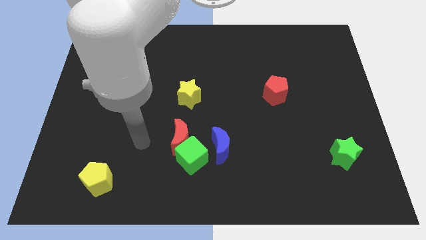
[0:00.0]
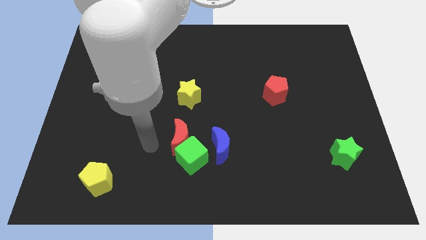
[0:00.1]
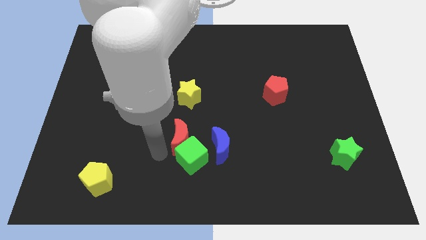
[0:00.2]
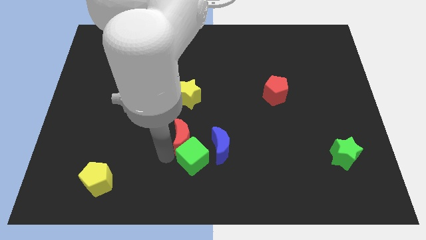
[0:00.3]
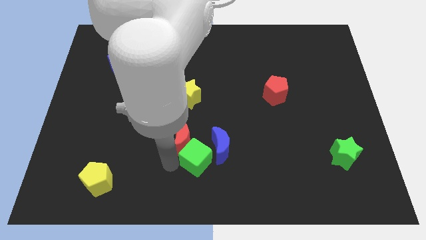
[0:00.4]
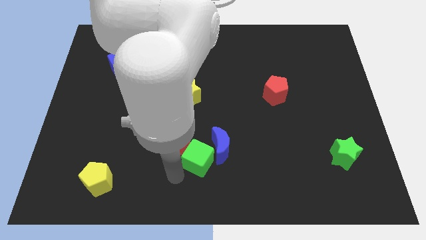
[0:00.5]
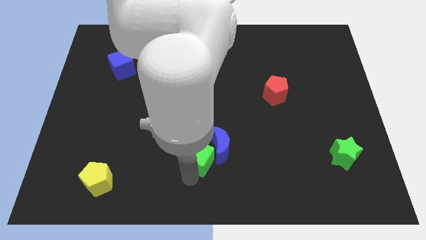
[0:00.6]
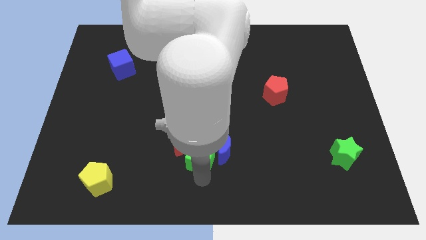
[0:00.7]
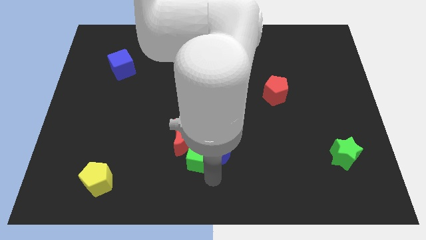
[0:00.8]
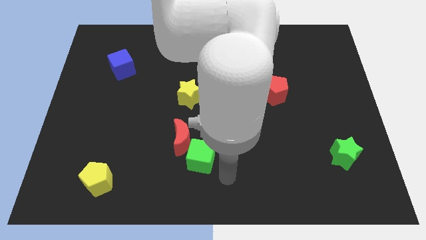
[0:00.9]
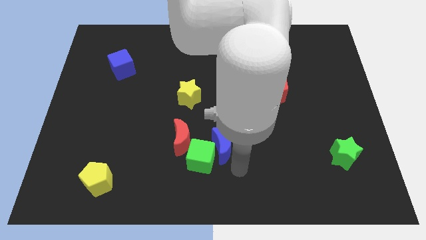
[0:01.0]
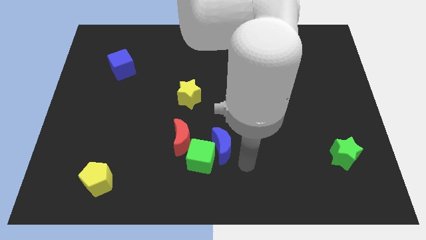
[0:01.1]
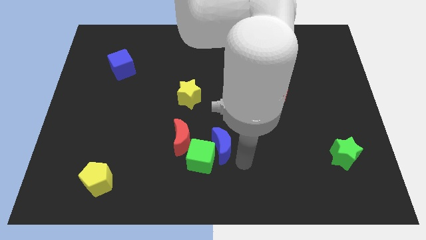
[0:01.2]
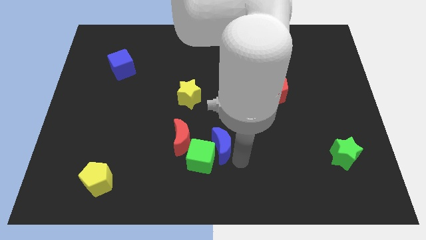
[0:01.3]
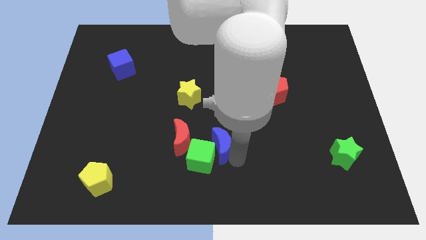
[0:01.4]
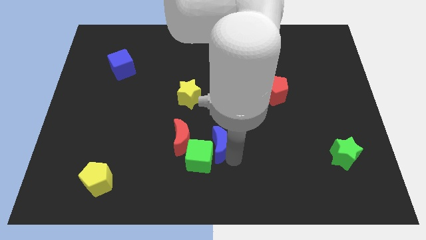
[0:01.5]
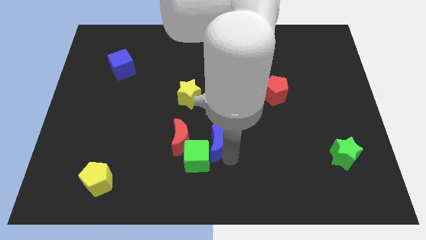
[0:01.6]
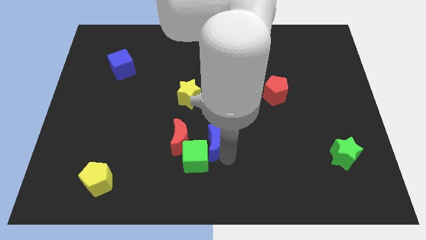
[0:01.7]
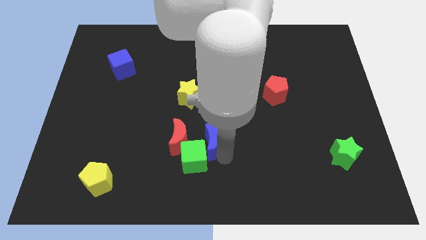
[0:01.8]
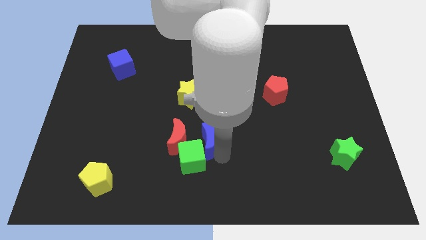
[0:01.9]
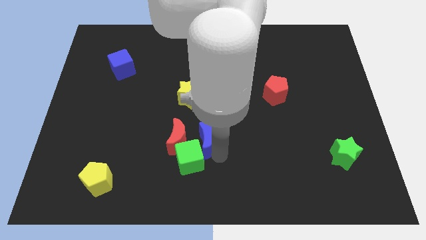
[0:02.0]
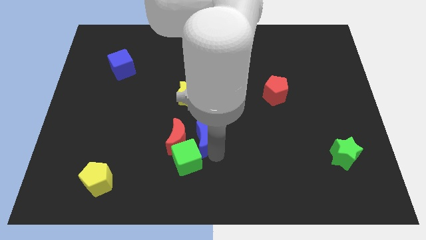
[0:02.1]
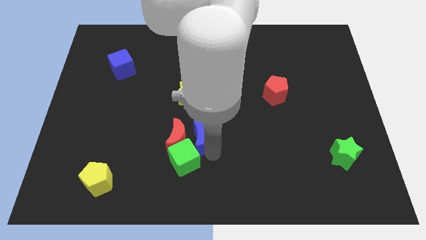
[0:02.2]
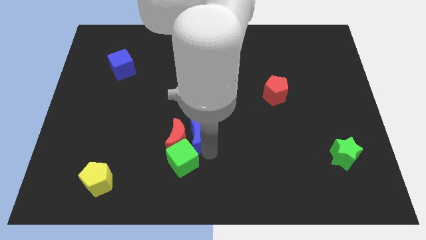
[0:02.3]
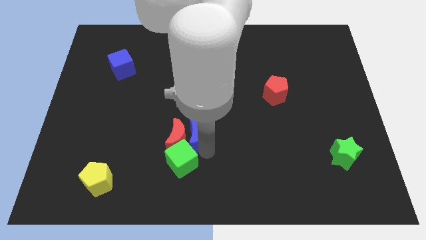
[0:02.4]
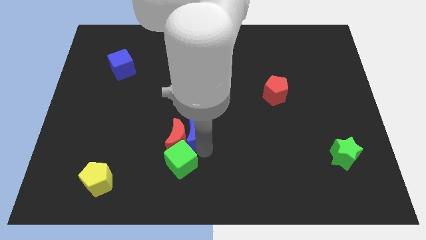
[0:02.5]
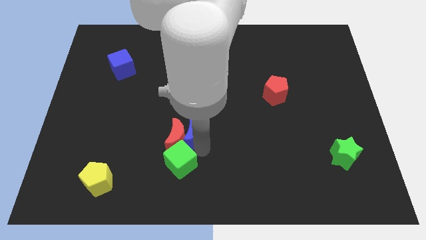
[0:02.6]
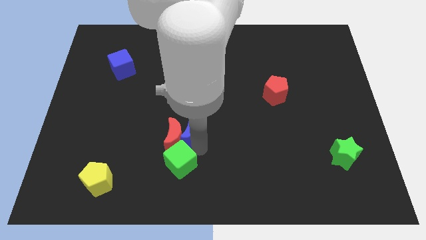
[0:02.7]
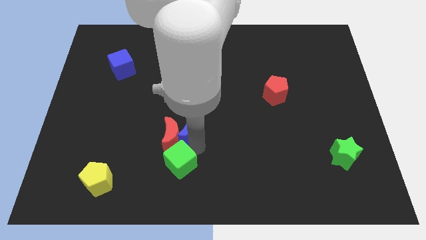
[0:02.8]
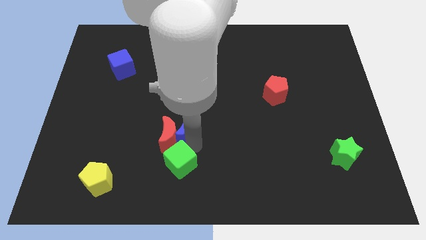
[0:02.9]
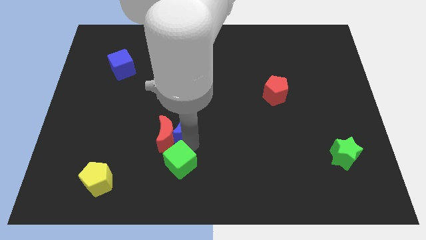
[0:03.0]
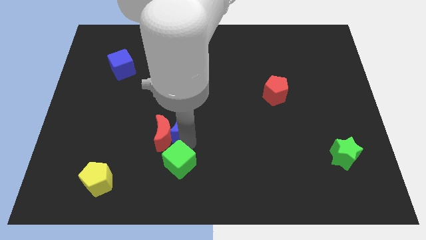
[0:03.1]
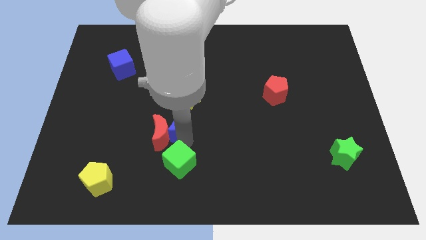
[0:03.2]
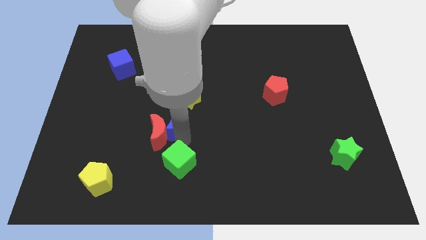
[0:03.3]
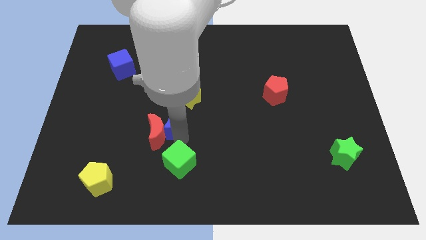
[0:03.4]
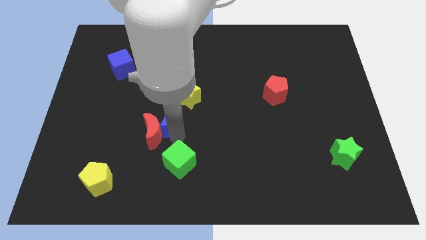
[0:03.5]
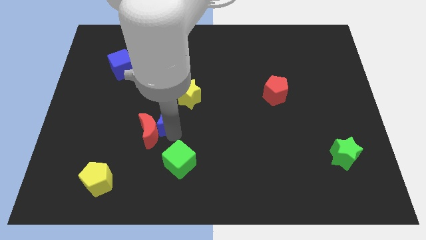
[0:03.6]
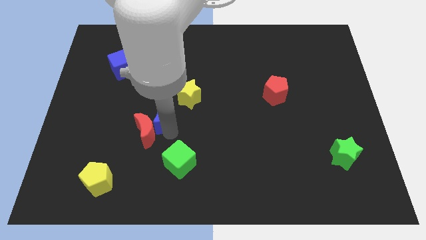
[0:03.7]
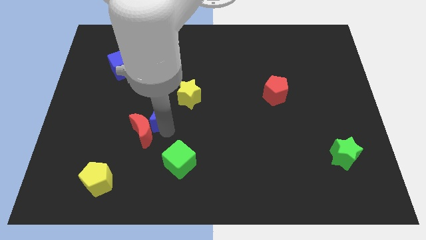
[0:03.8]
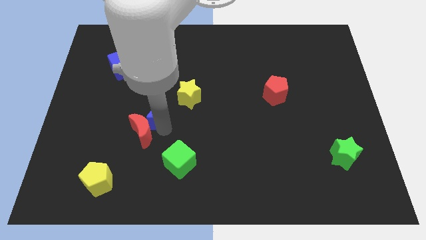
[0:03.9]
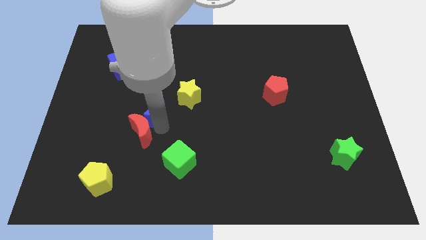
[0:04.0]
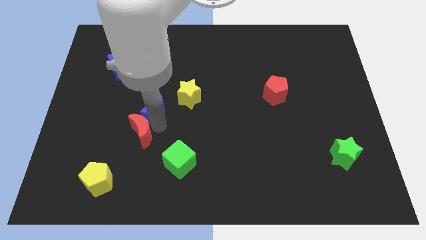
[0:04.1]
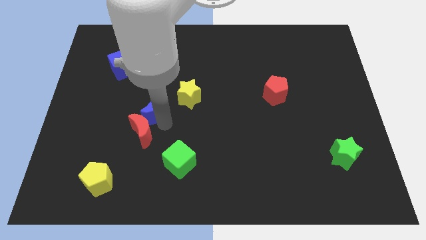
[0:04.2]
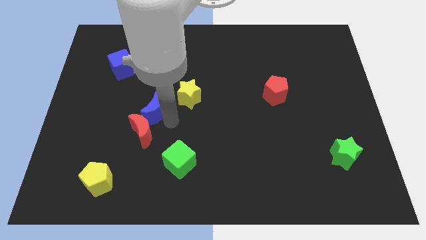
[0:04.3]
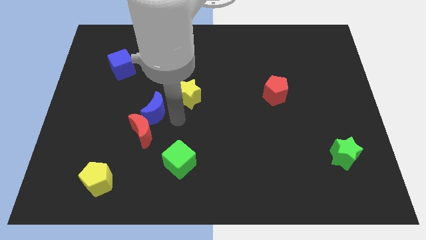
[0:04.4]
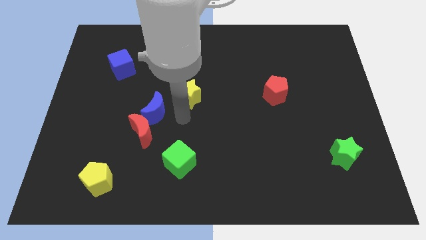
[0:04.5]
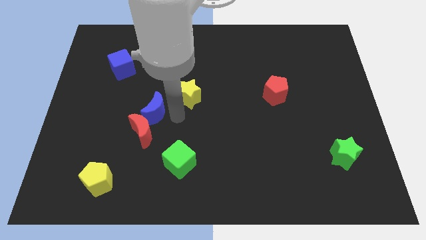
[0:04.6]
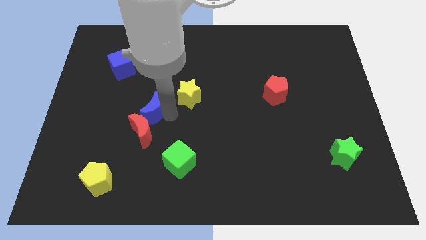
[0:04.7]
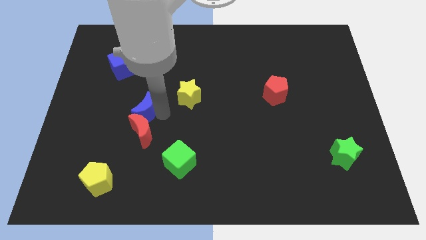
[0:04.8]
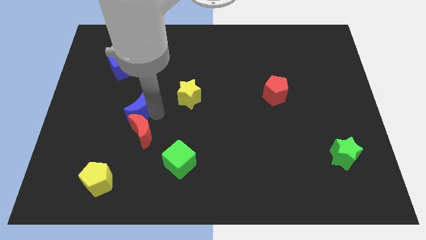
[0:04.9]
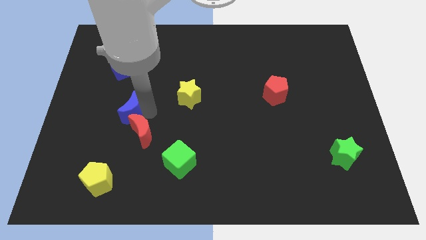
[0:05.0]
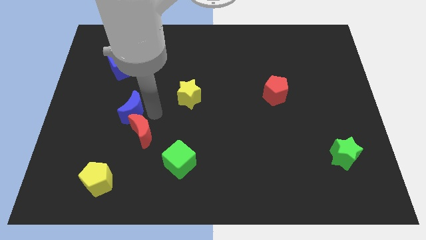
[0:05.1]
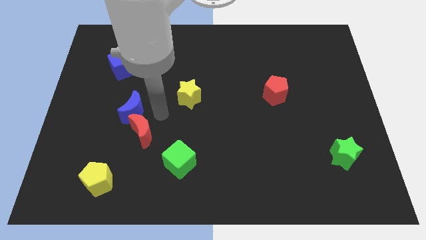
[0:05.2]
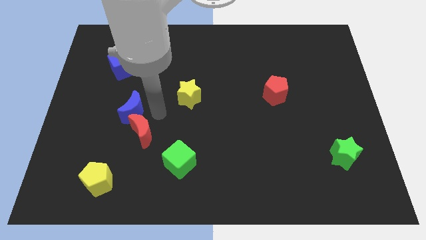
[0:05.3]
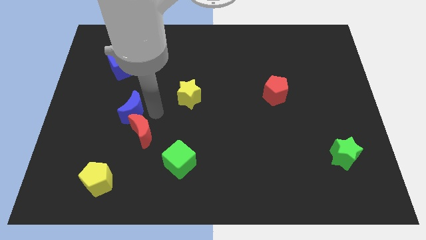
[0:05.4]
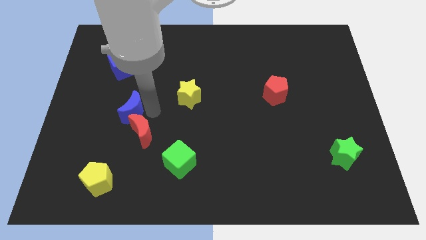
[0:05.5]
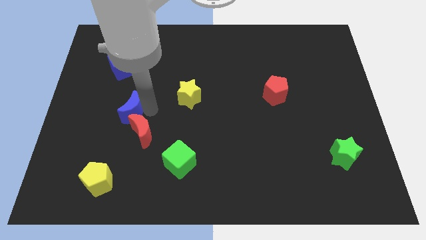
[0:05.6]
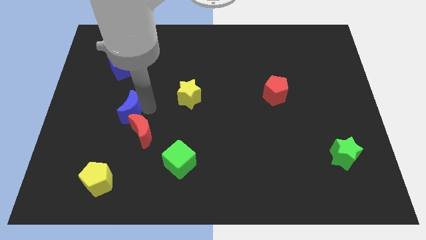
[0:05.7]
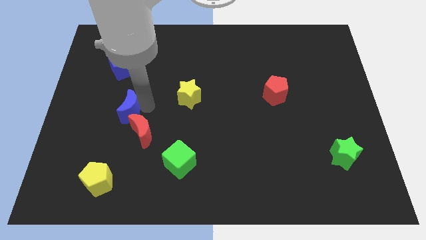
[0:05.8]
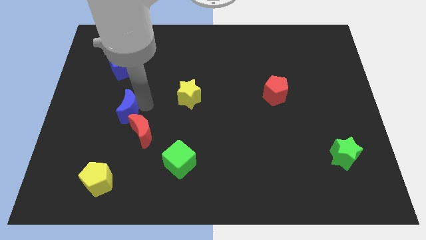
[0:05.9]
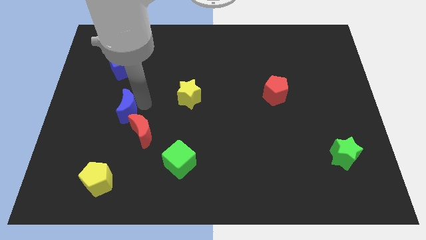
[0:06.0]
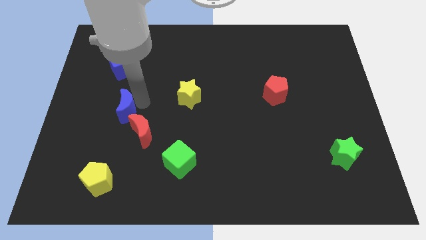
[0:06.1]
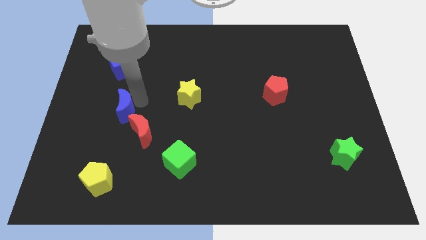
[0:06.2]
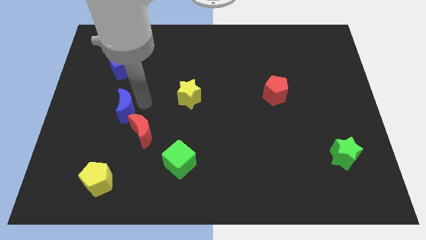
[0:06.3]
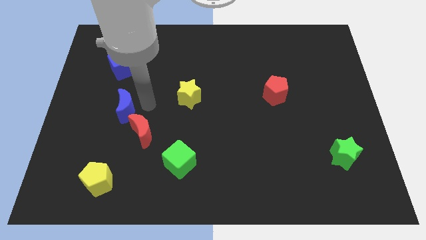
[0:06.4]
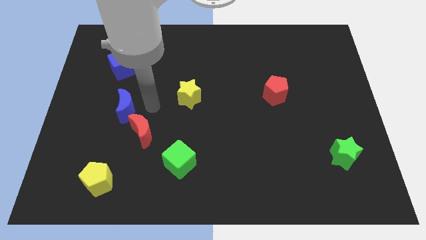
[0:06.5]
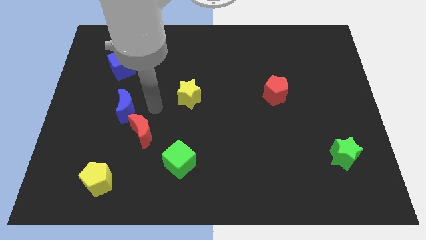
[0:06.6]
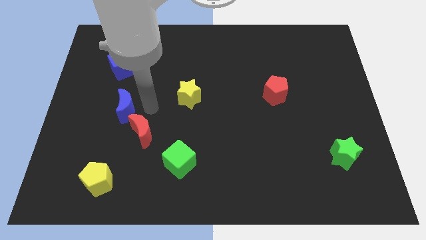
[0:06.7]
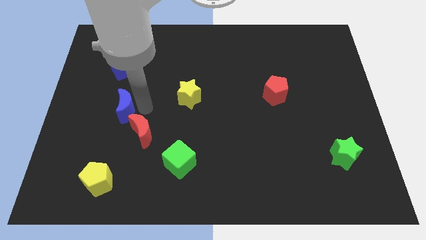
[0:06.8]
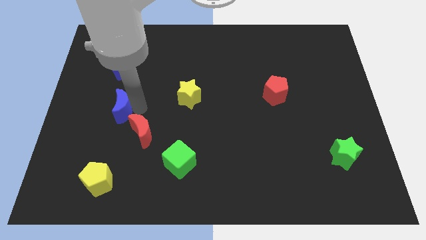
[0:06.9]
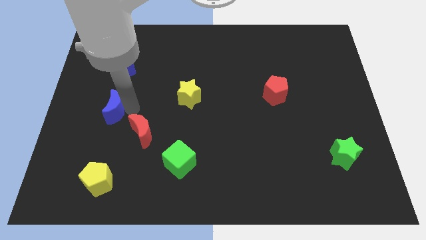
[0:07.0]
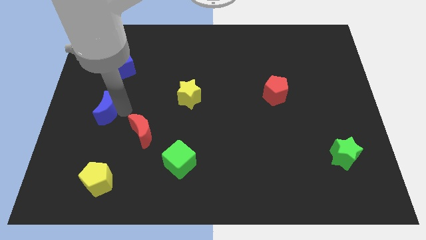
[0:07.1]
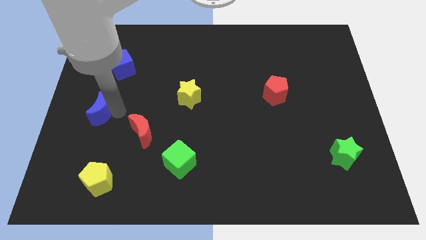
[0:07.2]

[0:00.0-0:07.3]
move the blue moon to the left side of the board

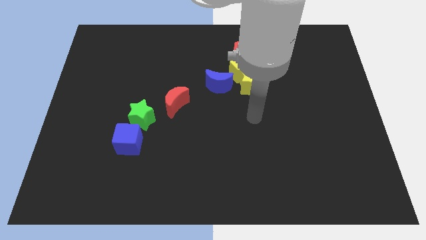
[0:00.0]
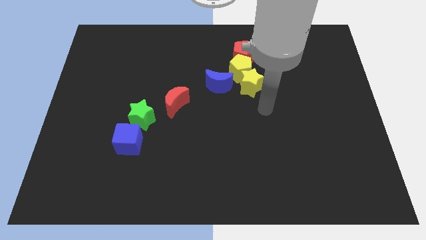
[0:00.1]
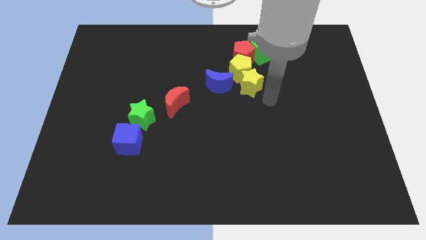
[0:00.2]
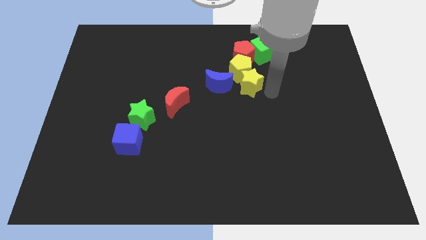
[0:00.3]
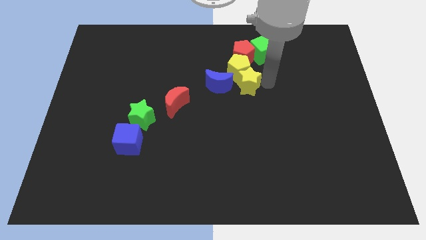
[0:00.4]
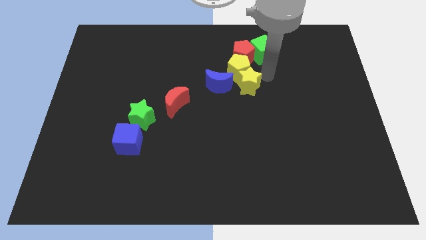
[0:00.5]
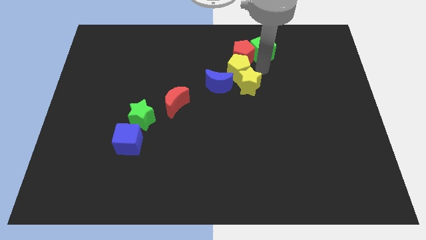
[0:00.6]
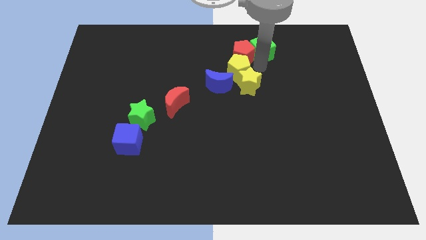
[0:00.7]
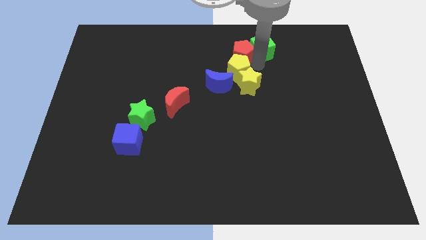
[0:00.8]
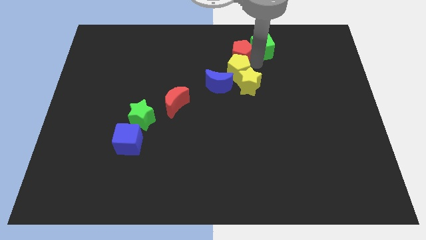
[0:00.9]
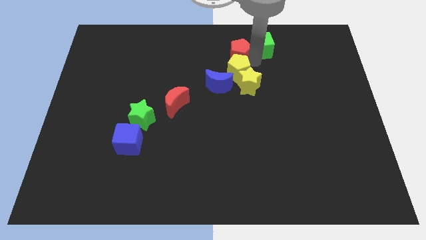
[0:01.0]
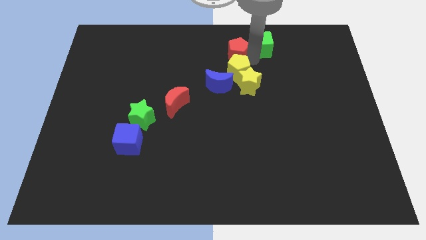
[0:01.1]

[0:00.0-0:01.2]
push the red pentagon to the top
